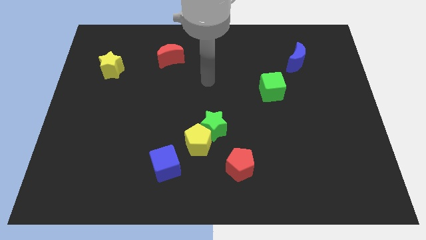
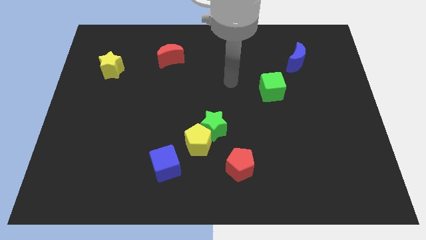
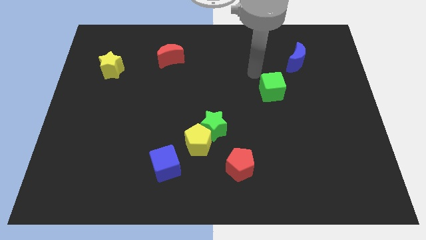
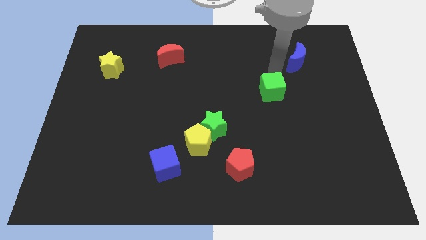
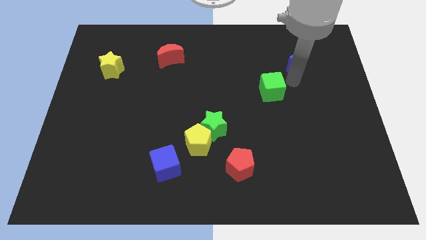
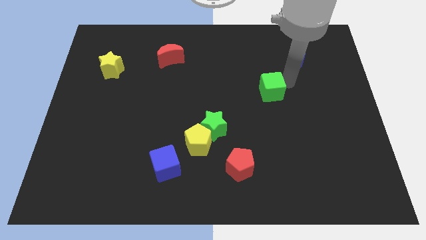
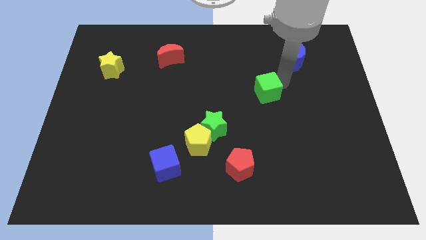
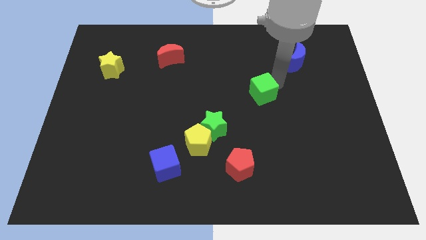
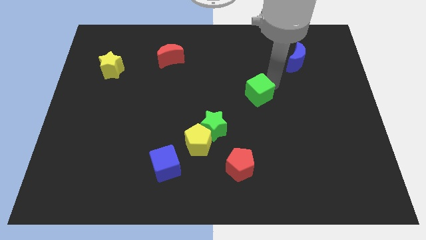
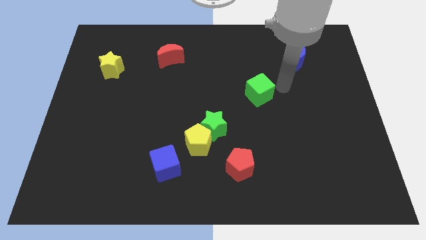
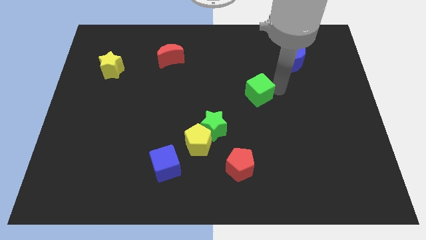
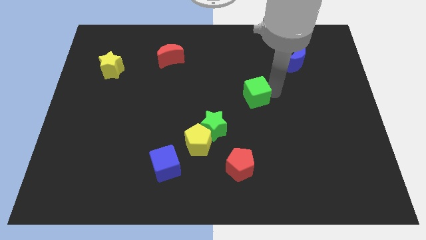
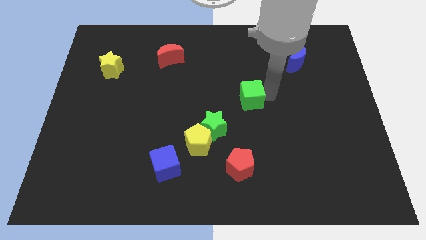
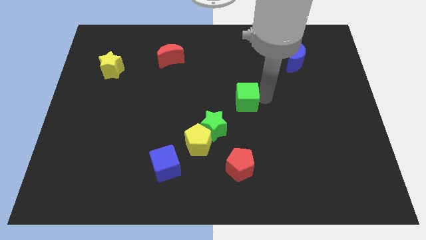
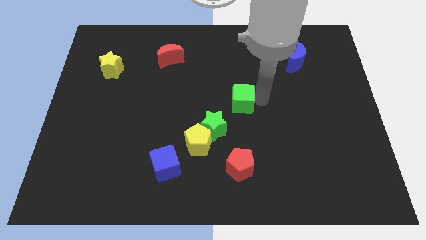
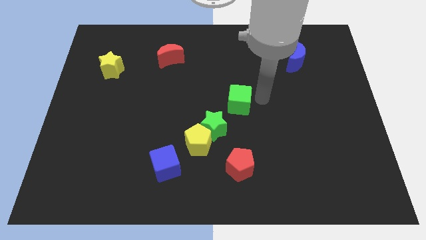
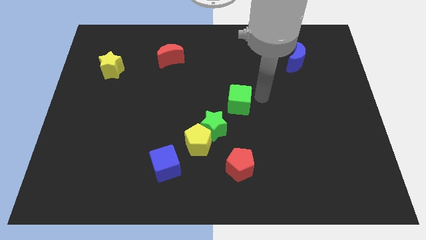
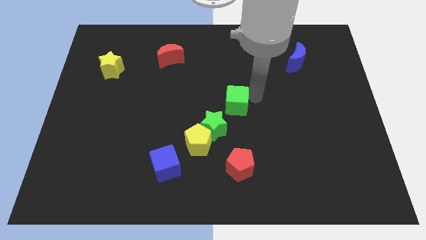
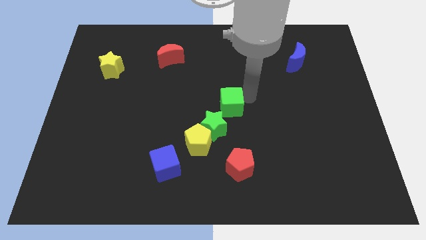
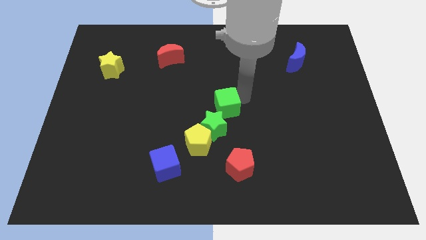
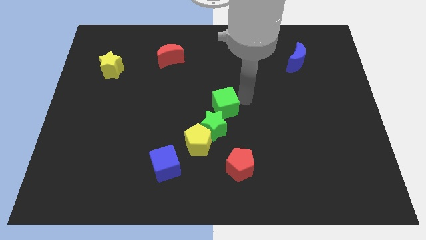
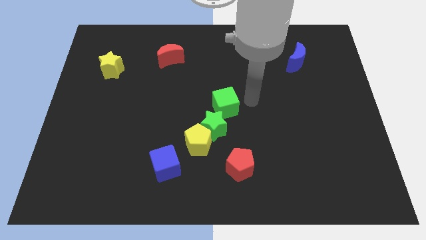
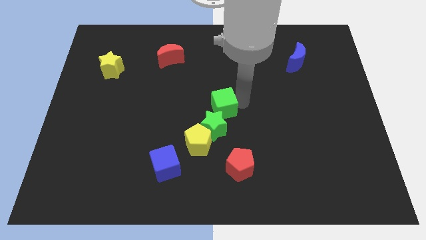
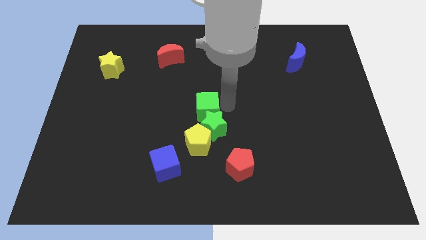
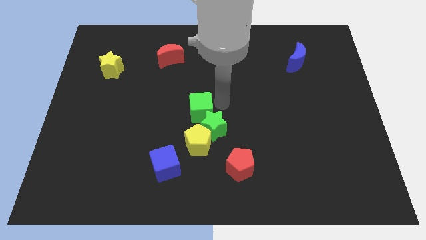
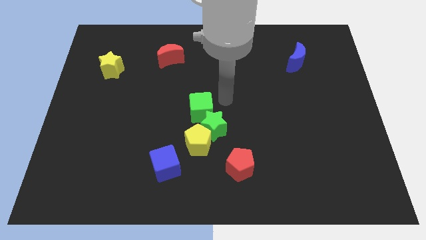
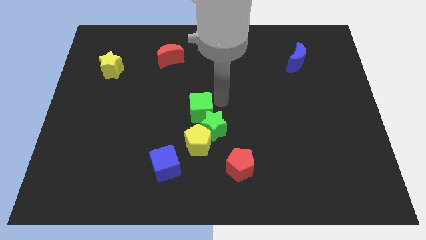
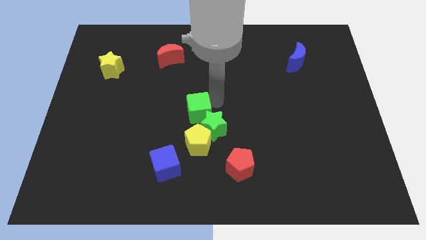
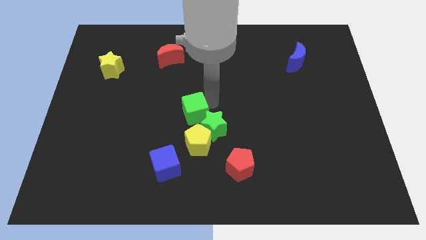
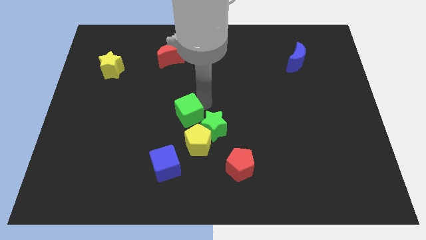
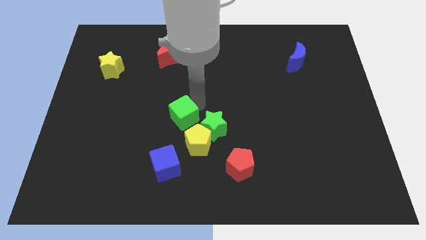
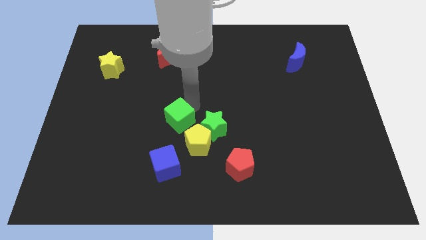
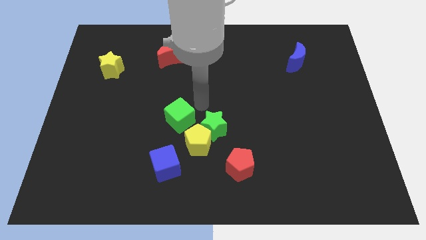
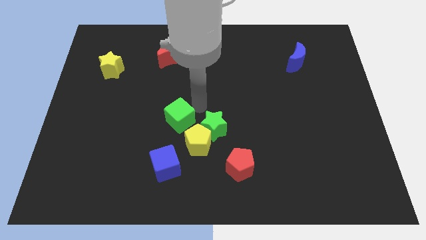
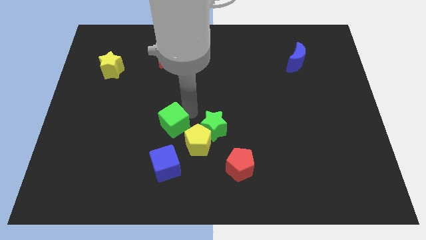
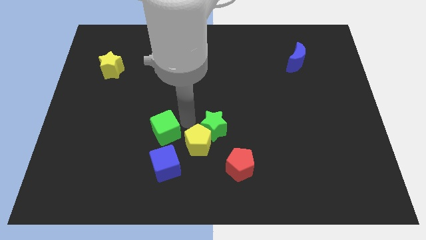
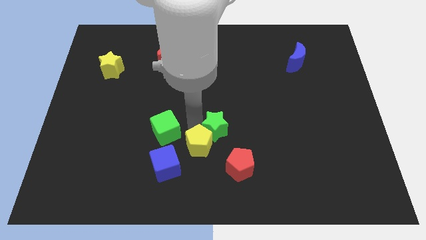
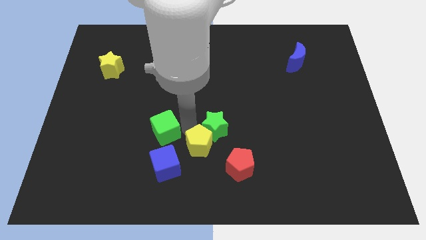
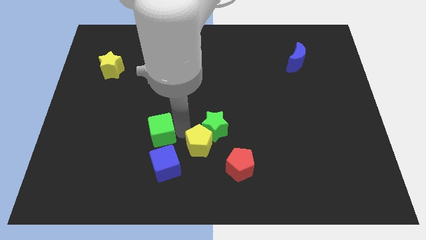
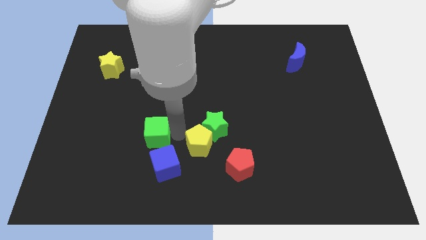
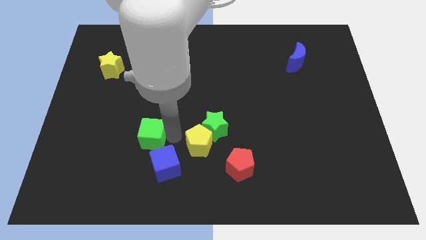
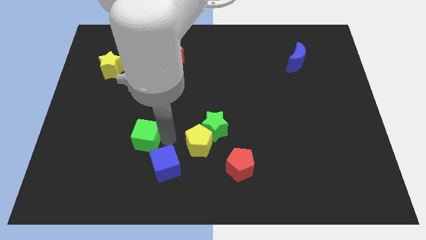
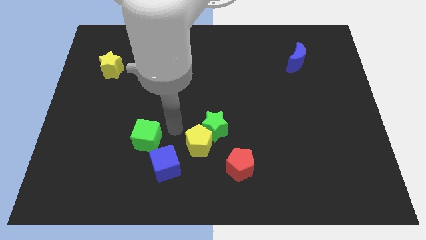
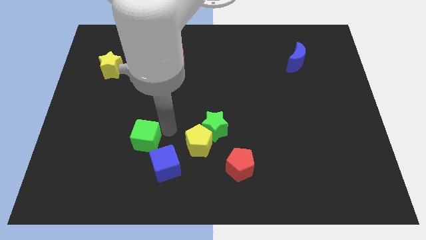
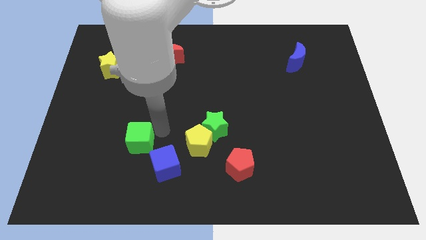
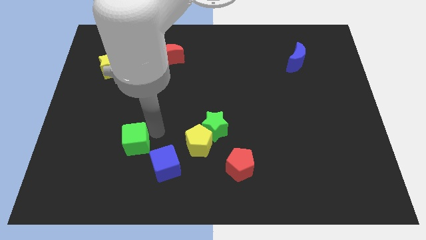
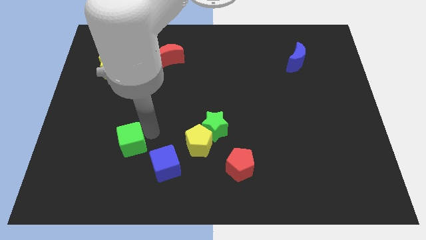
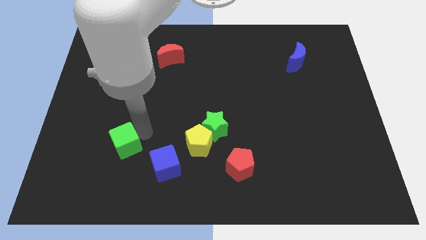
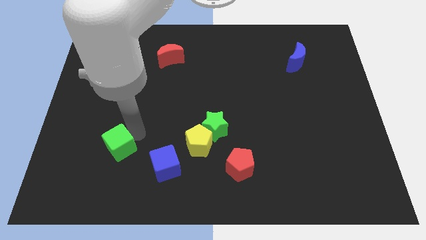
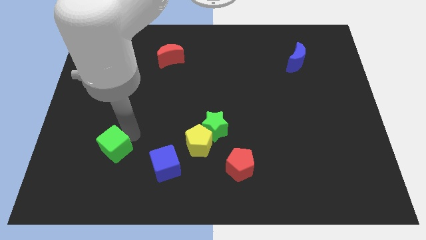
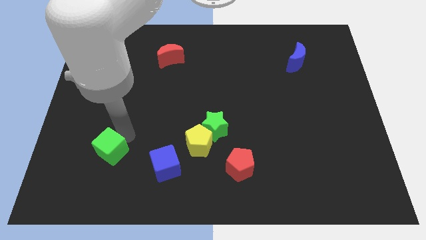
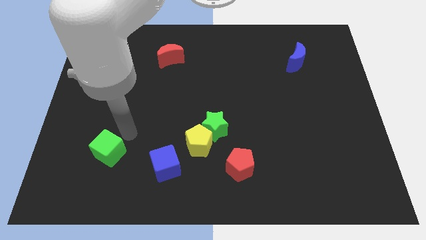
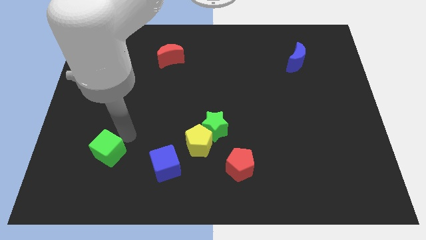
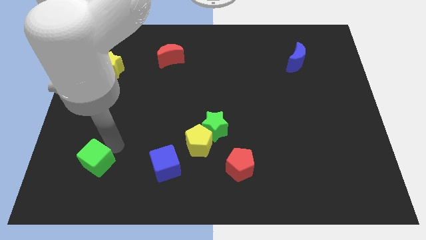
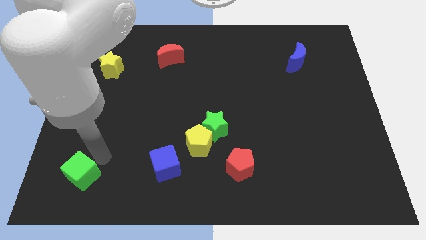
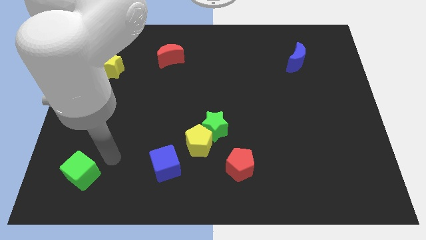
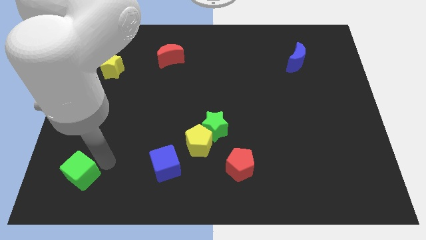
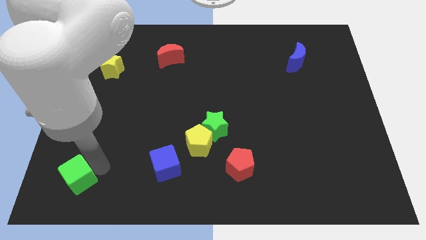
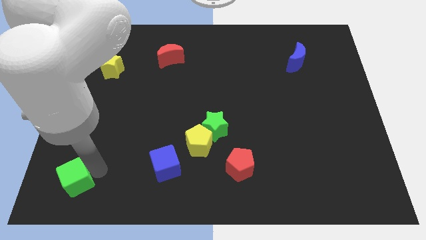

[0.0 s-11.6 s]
push the green cube to the lower left corner

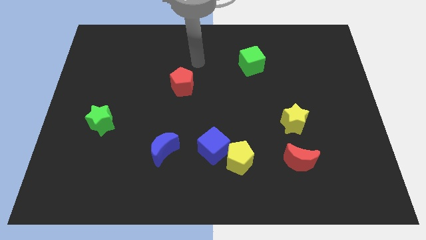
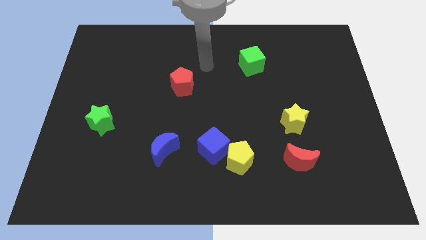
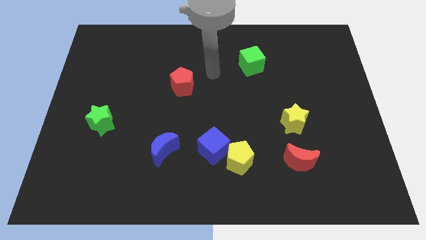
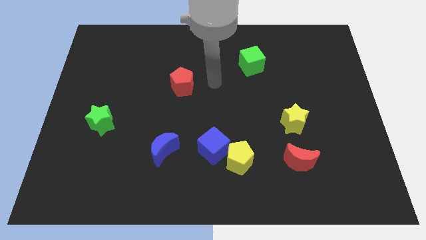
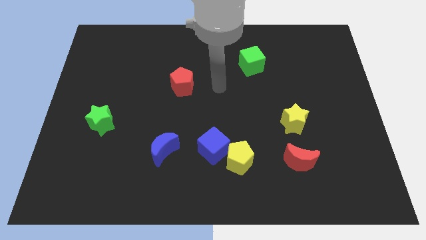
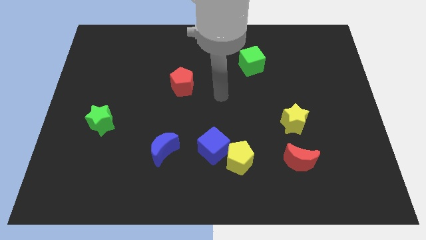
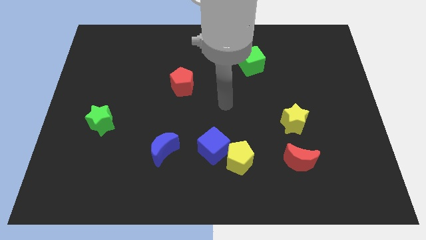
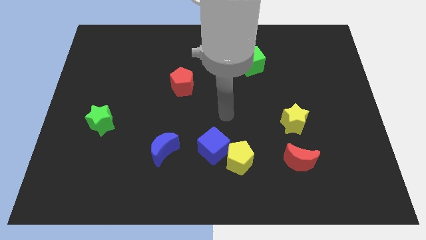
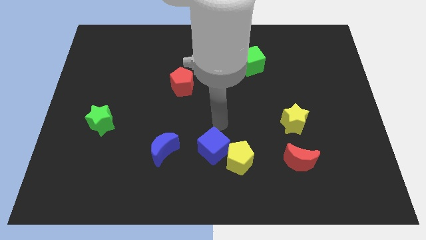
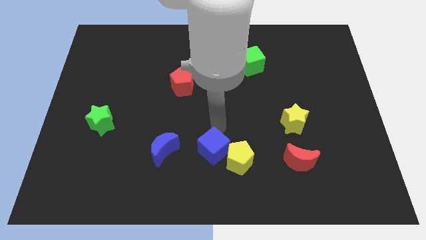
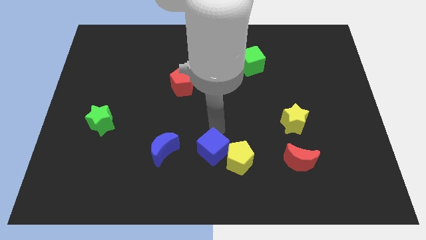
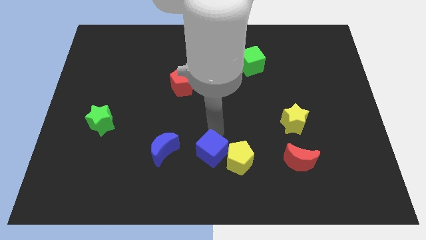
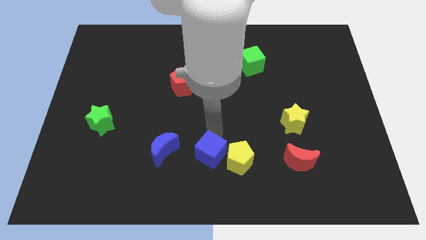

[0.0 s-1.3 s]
move the blue cube to the bottom
